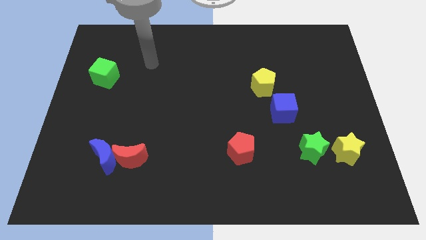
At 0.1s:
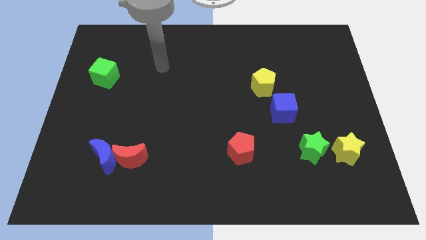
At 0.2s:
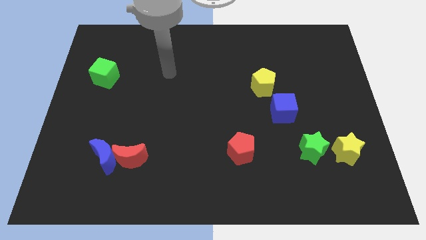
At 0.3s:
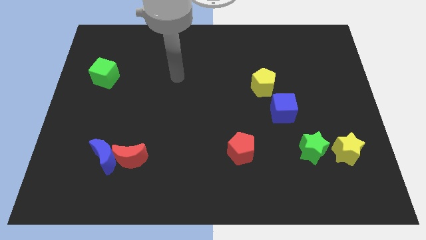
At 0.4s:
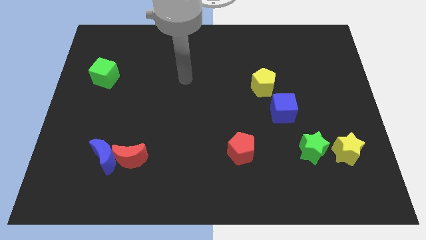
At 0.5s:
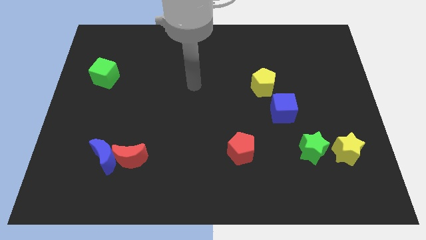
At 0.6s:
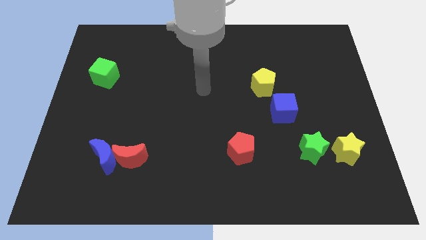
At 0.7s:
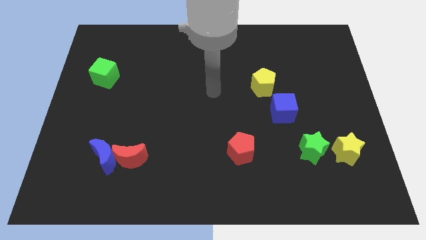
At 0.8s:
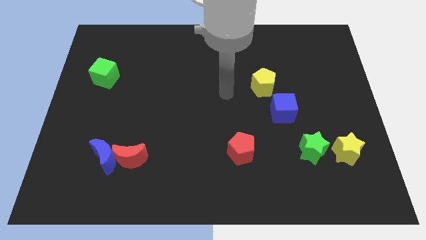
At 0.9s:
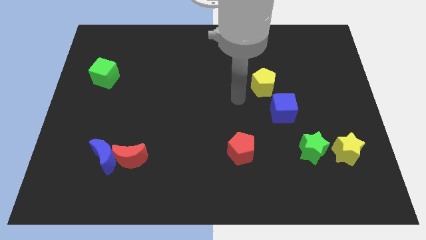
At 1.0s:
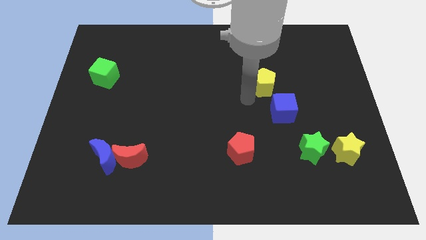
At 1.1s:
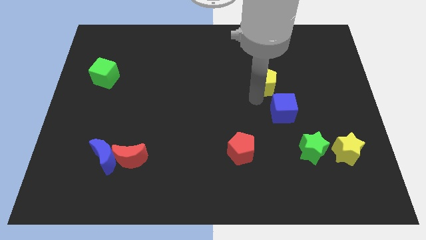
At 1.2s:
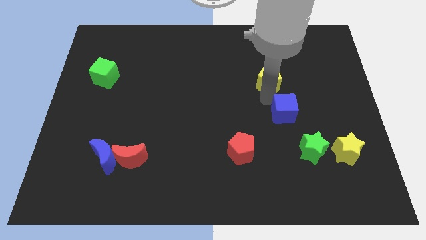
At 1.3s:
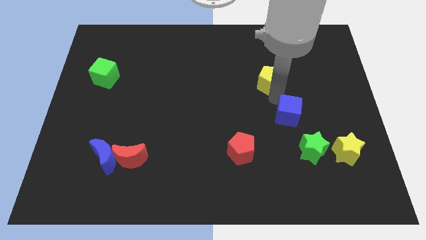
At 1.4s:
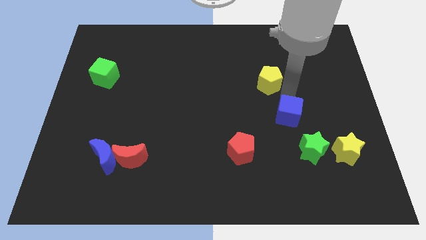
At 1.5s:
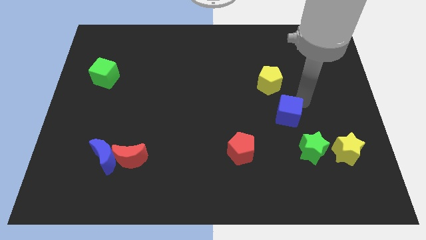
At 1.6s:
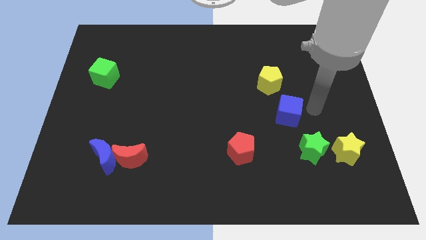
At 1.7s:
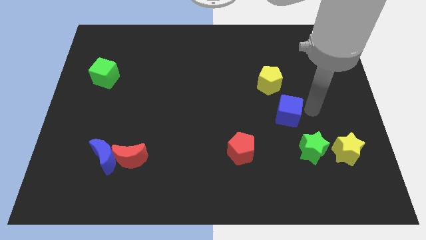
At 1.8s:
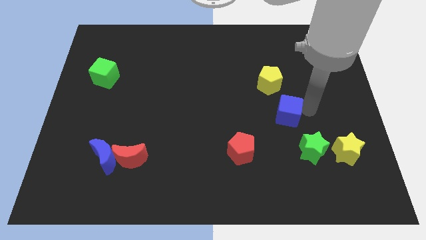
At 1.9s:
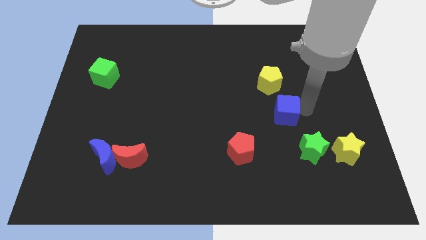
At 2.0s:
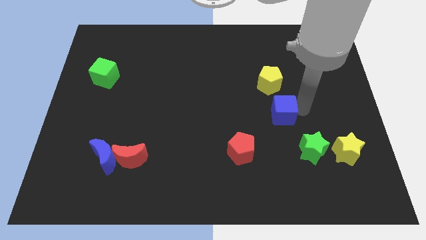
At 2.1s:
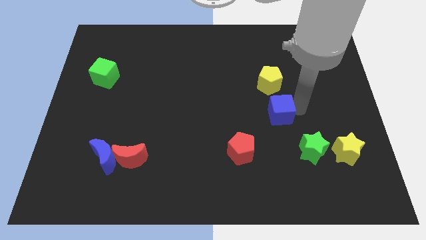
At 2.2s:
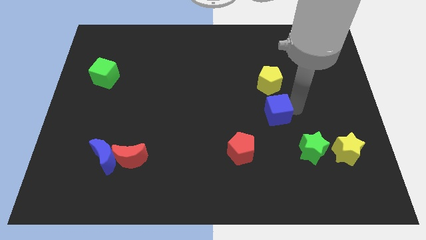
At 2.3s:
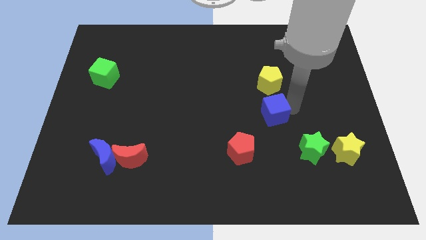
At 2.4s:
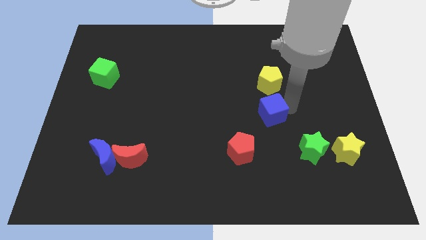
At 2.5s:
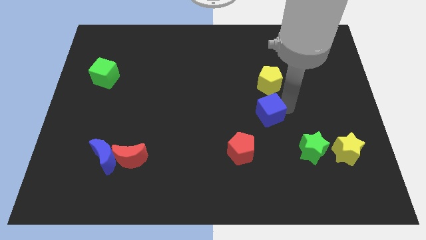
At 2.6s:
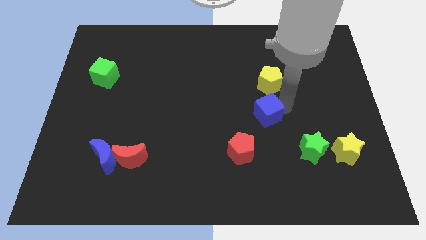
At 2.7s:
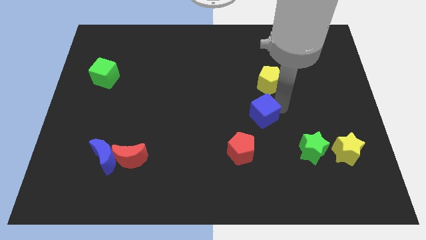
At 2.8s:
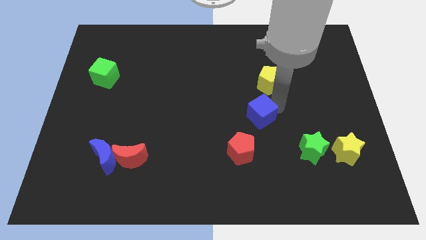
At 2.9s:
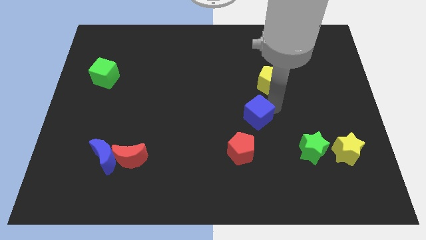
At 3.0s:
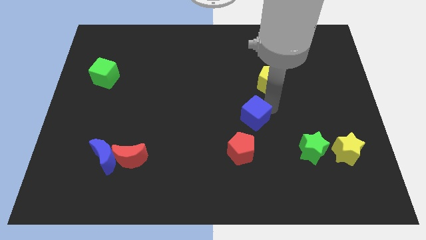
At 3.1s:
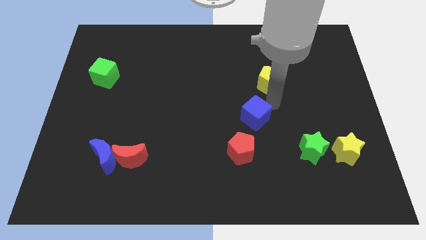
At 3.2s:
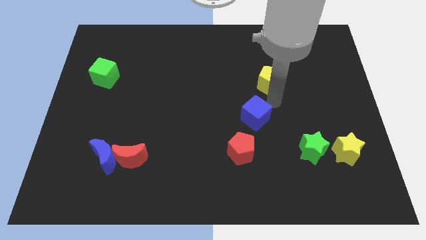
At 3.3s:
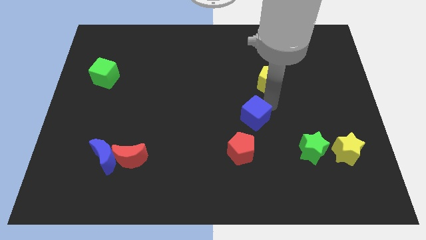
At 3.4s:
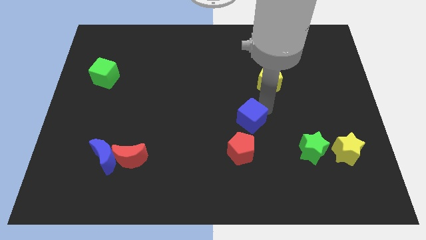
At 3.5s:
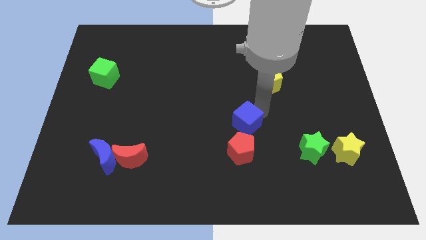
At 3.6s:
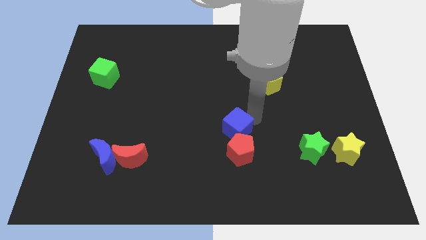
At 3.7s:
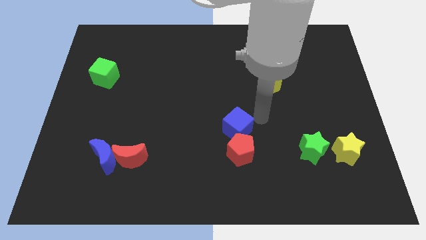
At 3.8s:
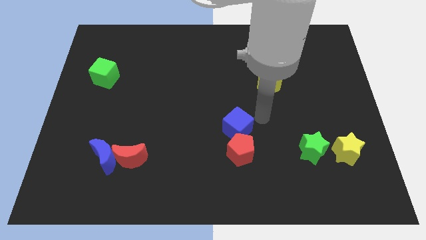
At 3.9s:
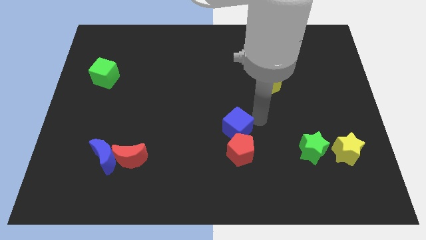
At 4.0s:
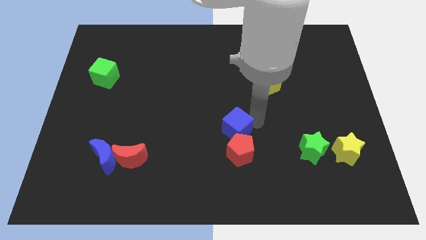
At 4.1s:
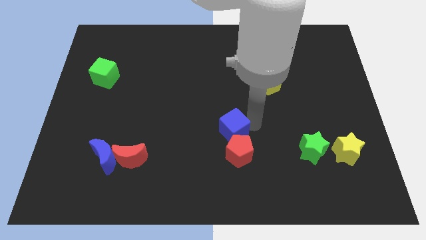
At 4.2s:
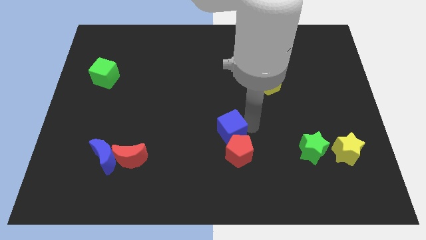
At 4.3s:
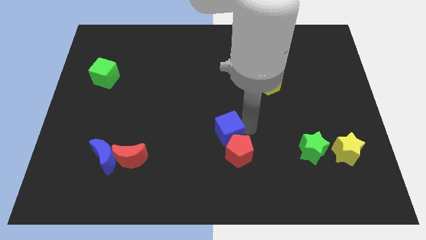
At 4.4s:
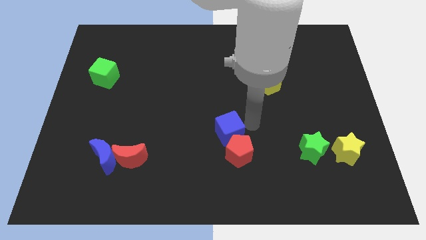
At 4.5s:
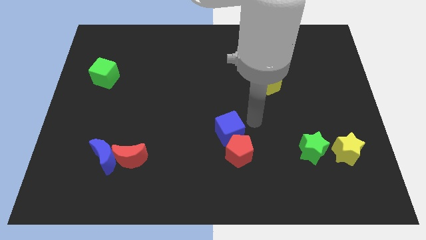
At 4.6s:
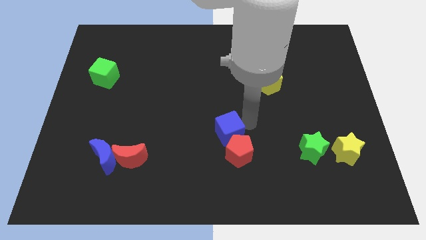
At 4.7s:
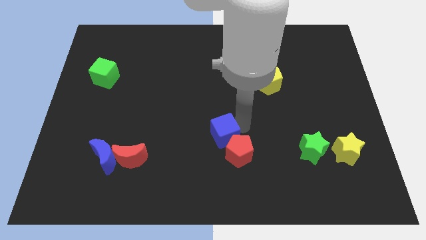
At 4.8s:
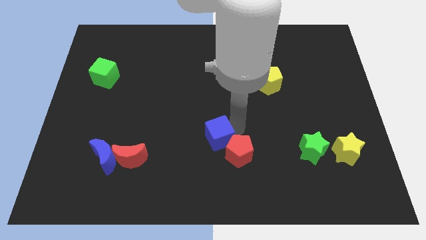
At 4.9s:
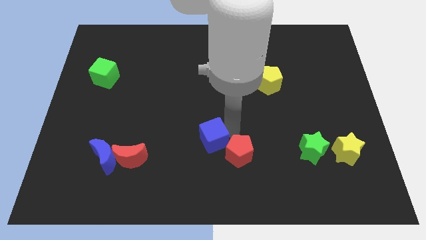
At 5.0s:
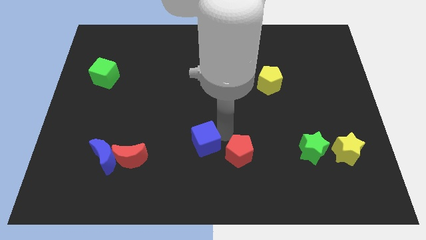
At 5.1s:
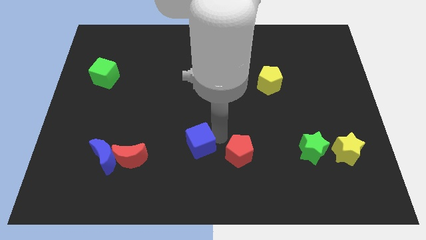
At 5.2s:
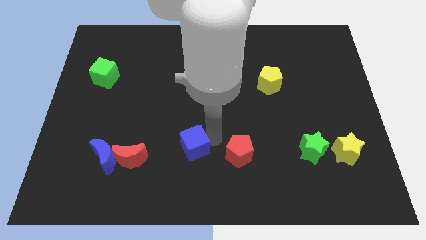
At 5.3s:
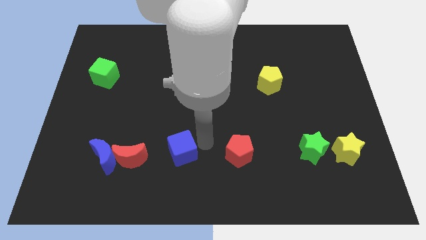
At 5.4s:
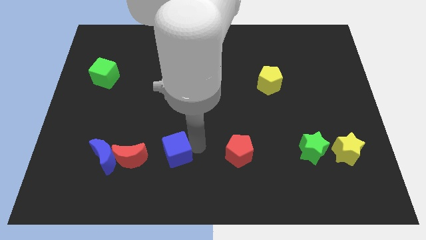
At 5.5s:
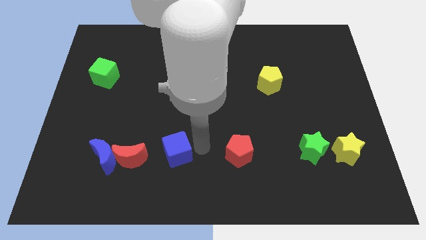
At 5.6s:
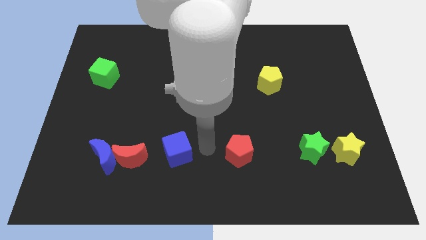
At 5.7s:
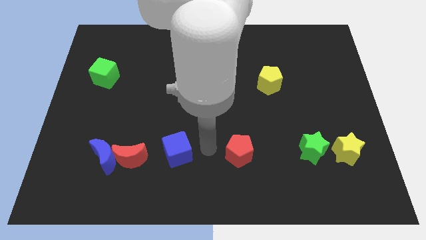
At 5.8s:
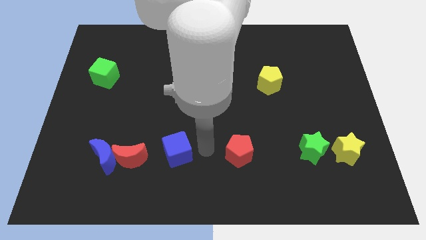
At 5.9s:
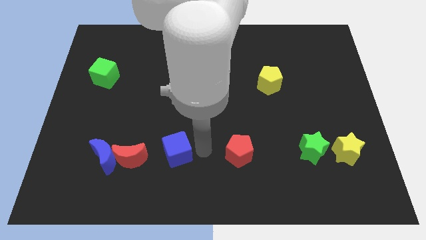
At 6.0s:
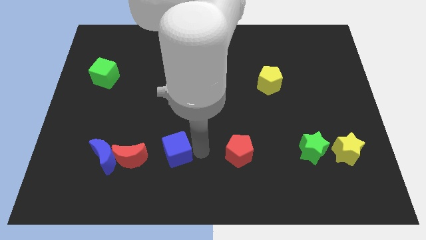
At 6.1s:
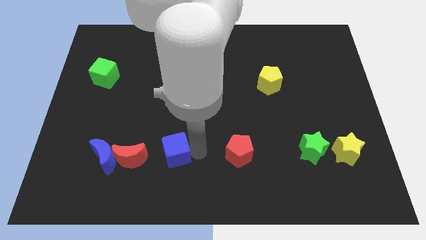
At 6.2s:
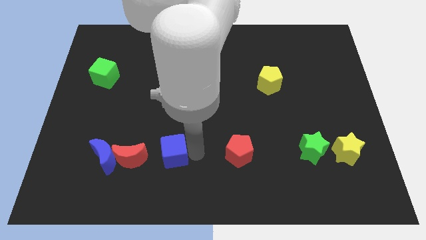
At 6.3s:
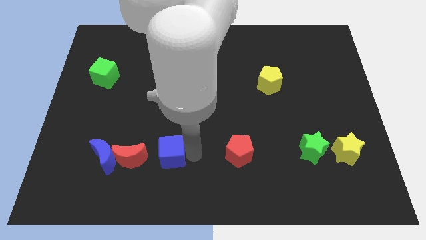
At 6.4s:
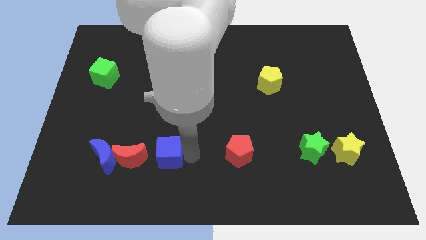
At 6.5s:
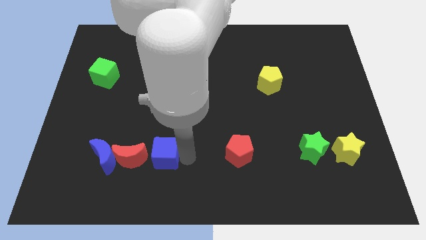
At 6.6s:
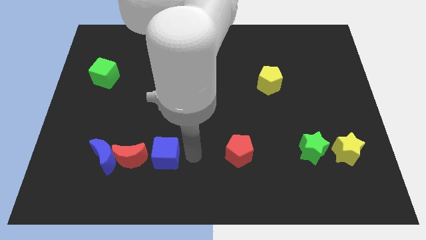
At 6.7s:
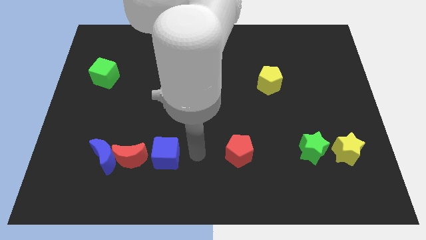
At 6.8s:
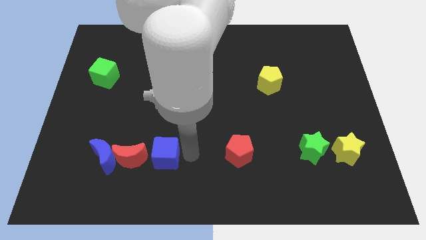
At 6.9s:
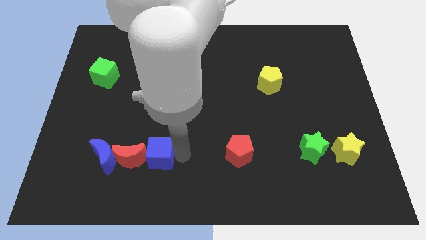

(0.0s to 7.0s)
move the blue cube towards the red moon

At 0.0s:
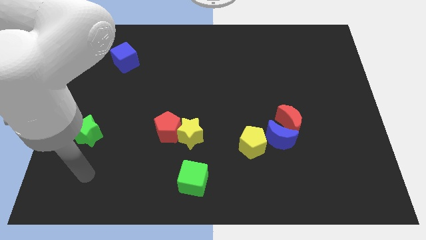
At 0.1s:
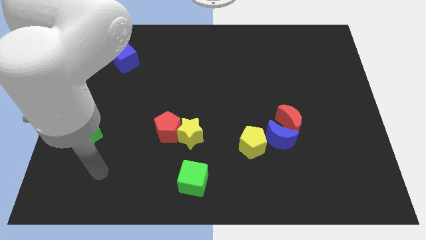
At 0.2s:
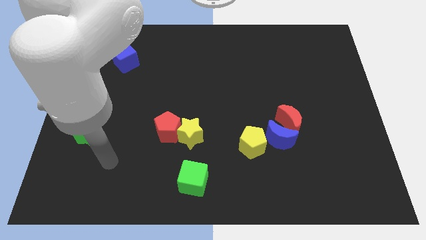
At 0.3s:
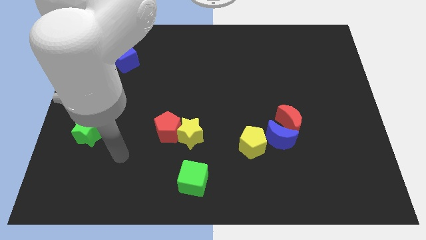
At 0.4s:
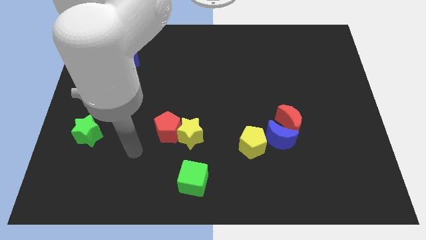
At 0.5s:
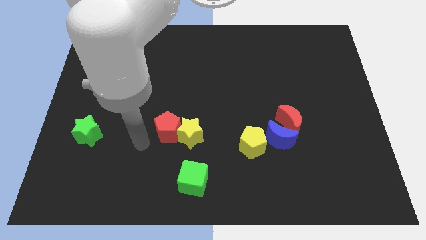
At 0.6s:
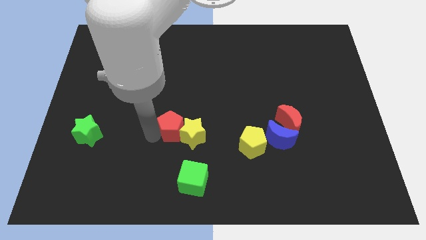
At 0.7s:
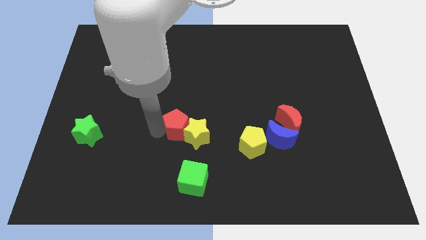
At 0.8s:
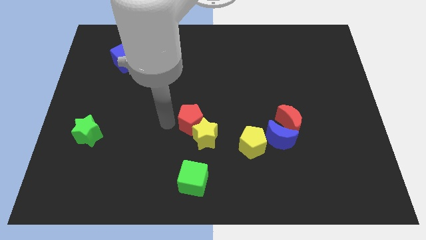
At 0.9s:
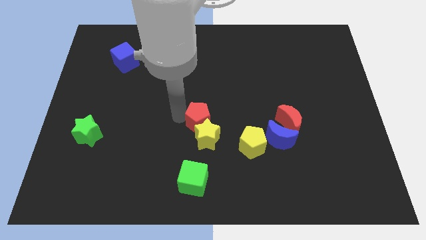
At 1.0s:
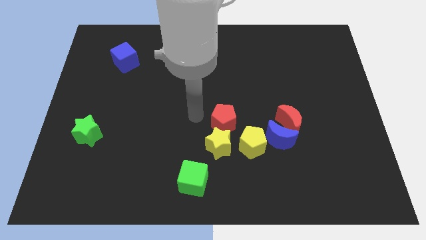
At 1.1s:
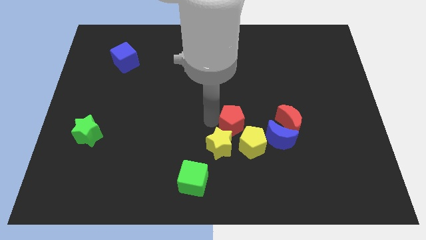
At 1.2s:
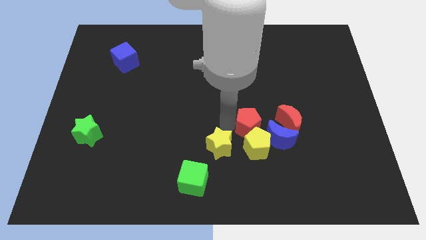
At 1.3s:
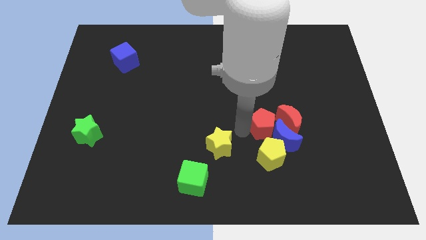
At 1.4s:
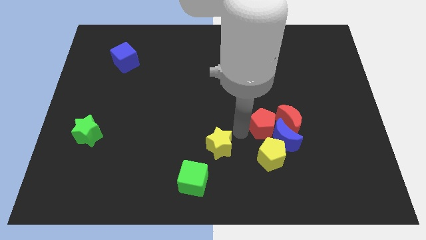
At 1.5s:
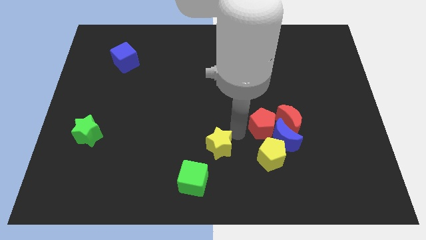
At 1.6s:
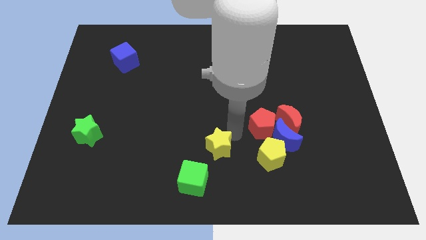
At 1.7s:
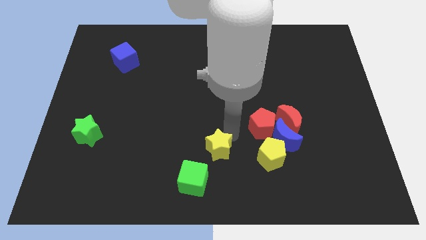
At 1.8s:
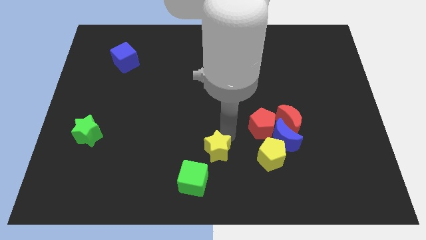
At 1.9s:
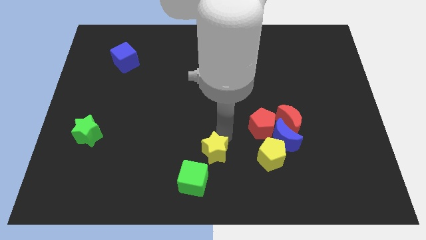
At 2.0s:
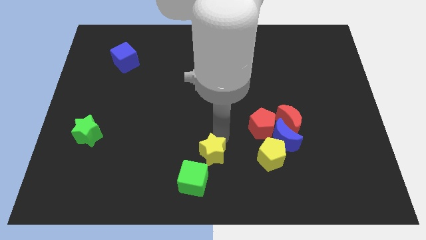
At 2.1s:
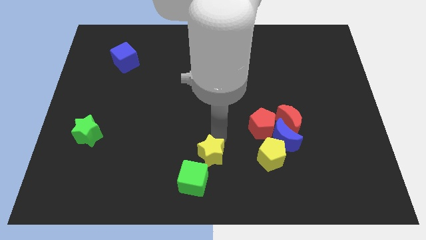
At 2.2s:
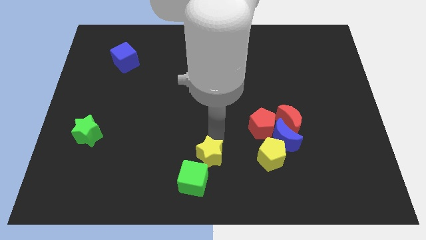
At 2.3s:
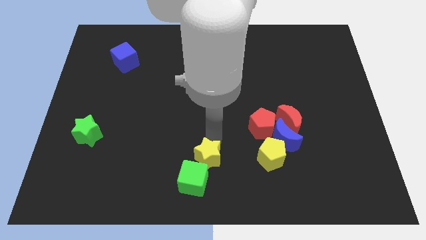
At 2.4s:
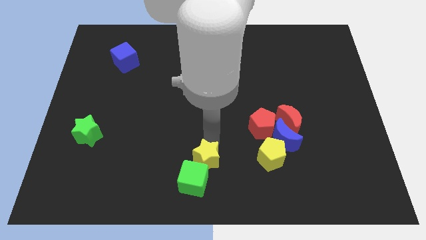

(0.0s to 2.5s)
move the yellow star next to the green cube
